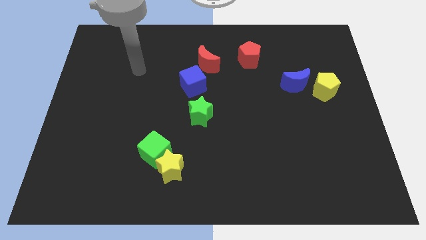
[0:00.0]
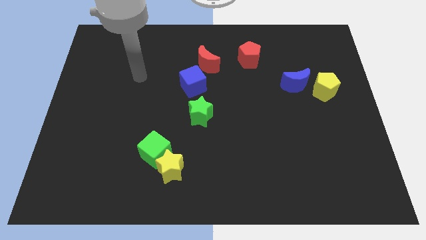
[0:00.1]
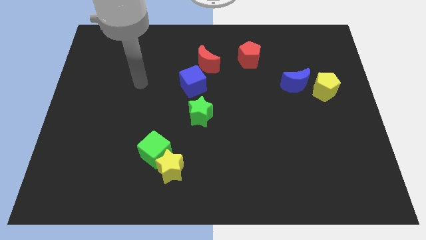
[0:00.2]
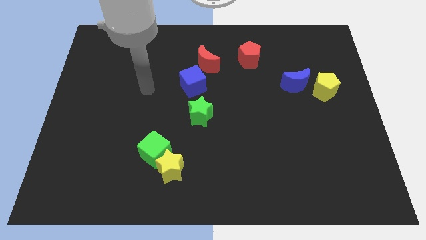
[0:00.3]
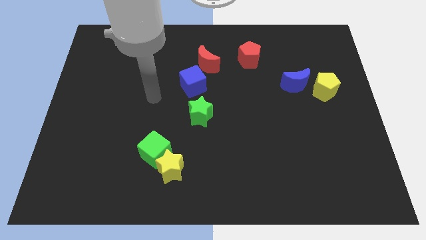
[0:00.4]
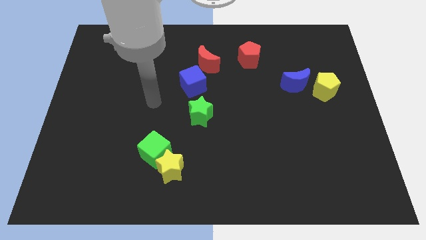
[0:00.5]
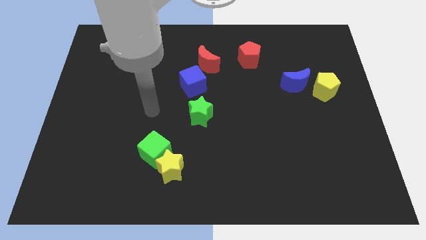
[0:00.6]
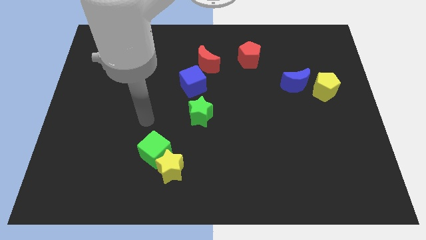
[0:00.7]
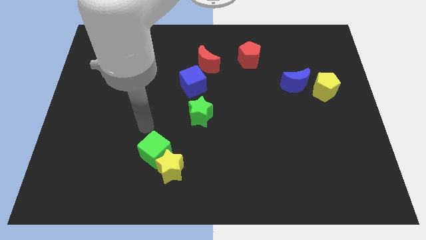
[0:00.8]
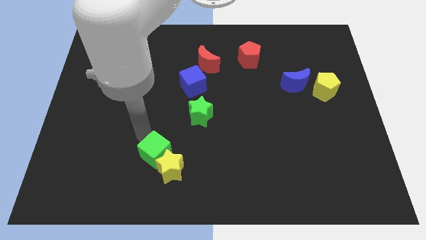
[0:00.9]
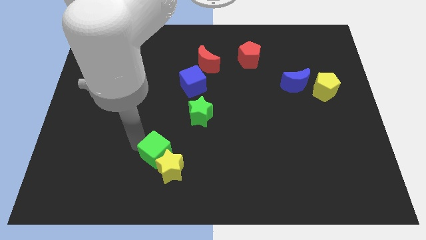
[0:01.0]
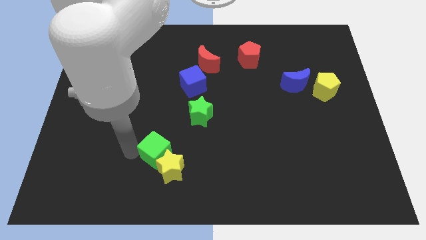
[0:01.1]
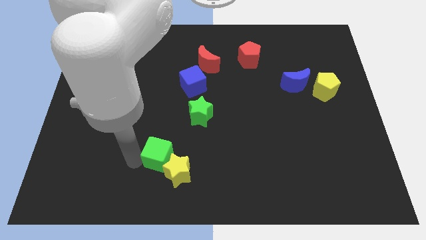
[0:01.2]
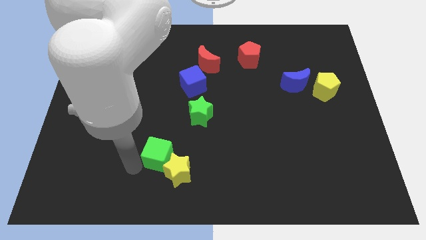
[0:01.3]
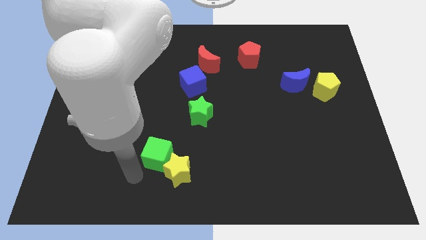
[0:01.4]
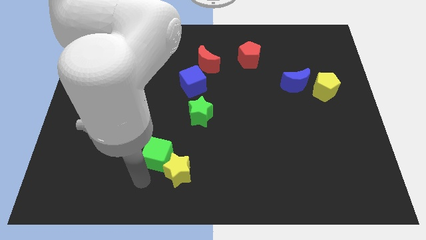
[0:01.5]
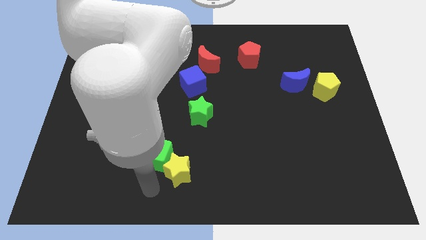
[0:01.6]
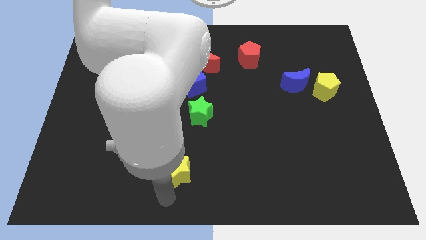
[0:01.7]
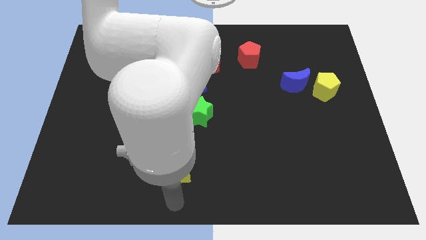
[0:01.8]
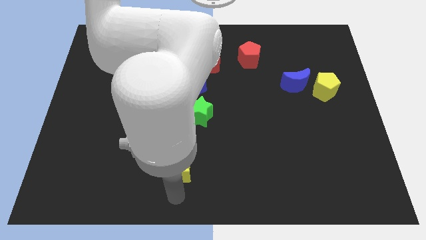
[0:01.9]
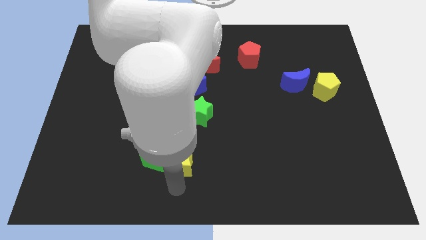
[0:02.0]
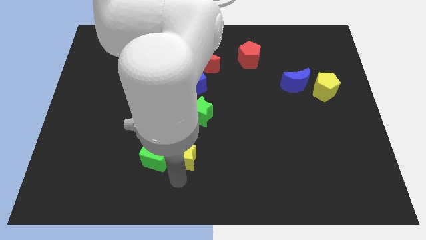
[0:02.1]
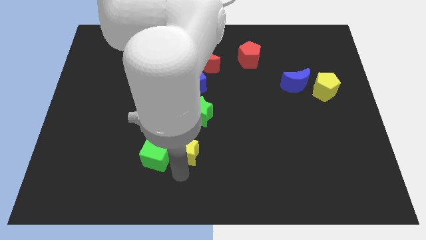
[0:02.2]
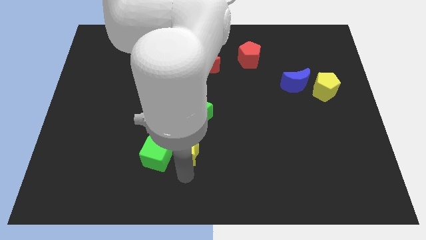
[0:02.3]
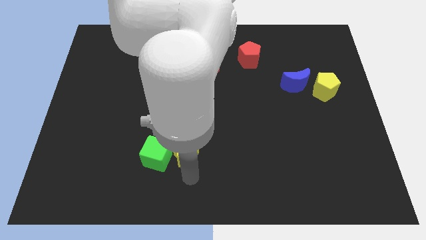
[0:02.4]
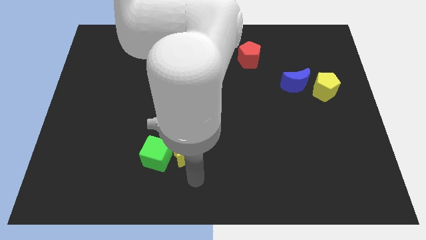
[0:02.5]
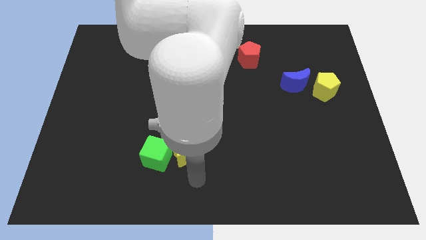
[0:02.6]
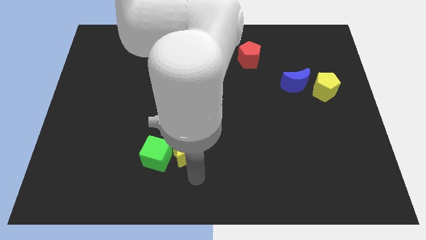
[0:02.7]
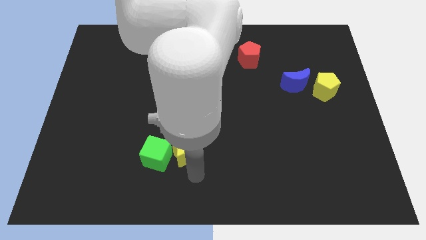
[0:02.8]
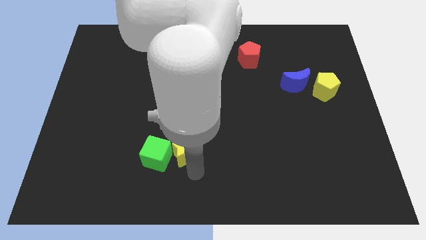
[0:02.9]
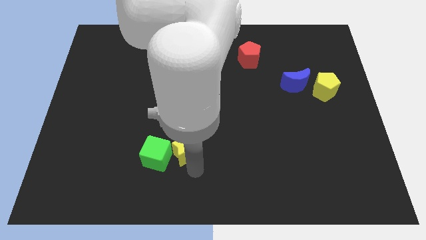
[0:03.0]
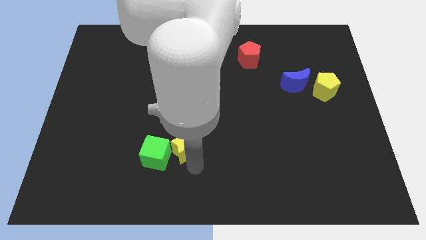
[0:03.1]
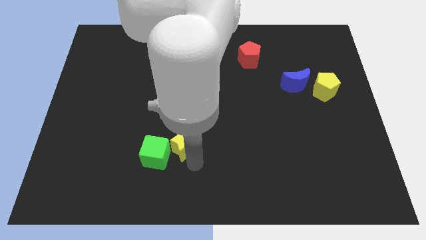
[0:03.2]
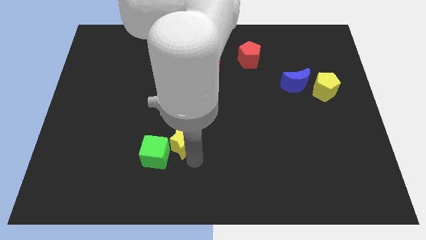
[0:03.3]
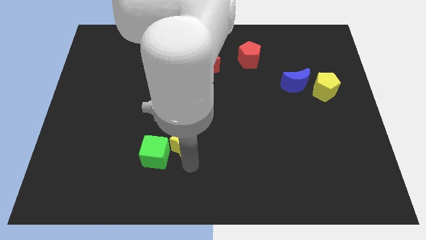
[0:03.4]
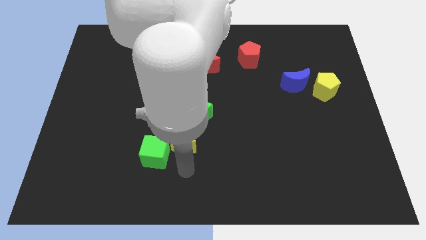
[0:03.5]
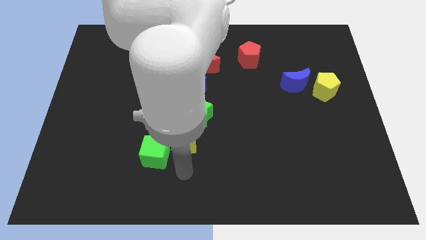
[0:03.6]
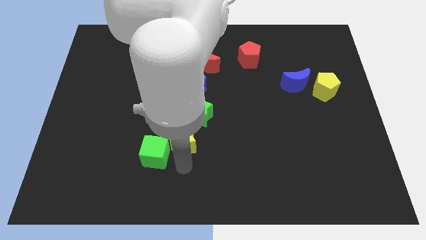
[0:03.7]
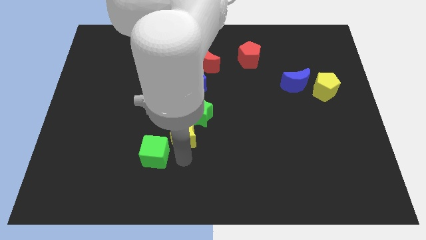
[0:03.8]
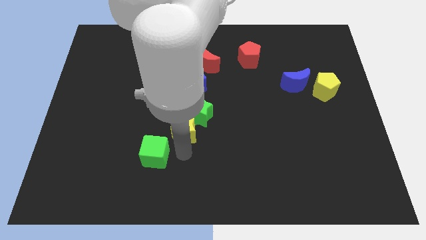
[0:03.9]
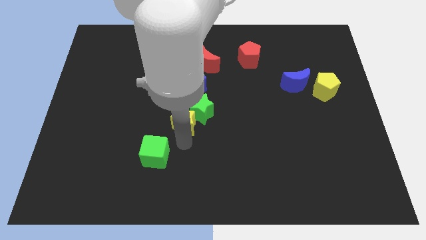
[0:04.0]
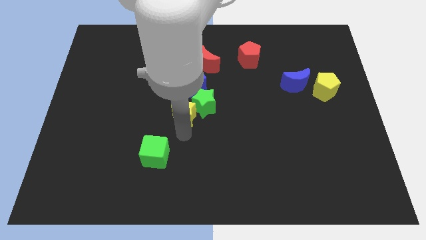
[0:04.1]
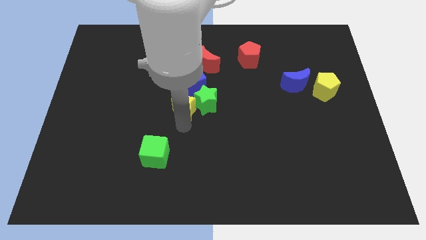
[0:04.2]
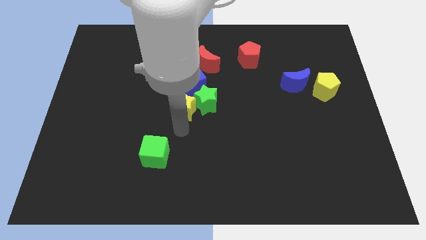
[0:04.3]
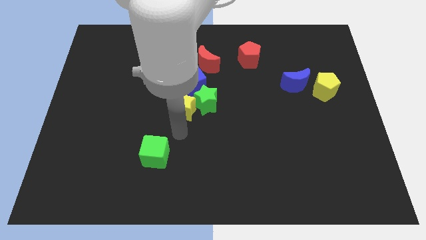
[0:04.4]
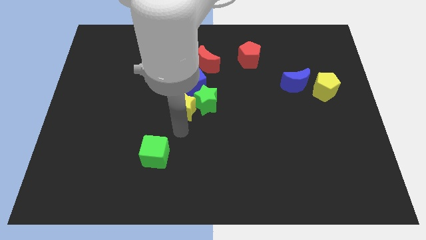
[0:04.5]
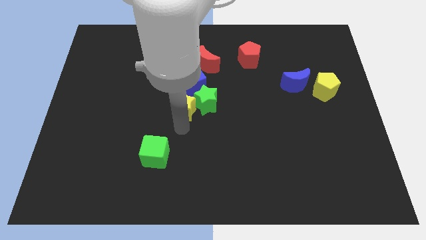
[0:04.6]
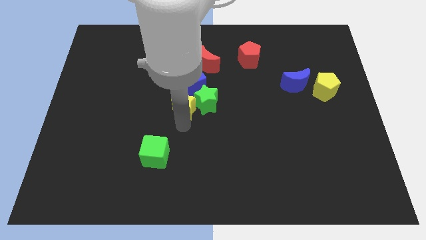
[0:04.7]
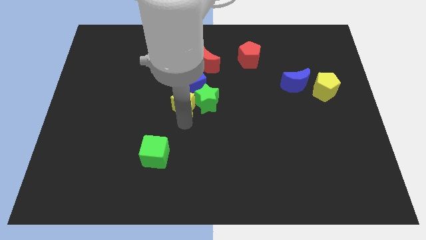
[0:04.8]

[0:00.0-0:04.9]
push the yellow star to the top left side of the green star

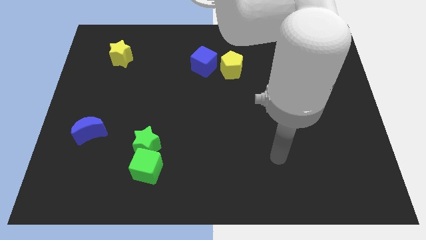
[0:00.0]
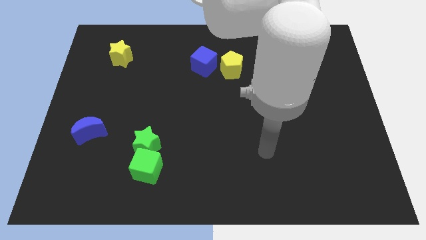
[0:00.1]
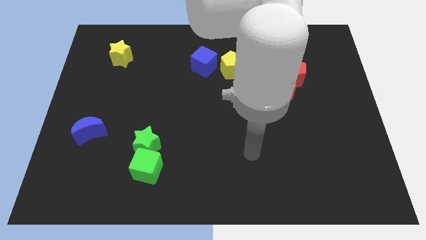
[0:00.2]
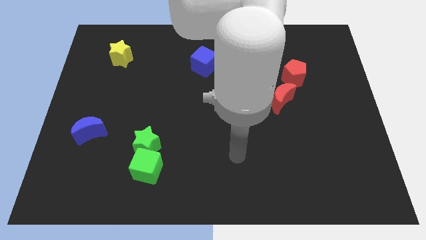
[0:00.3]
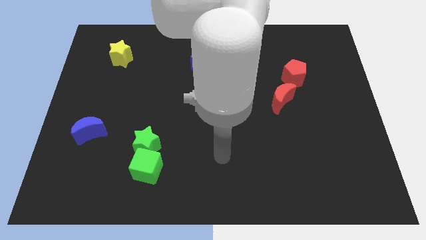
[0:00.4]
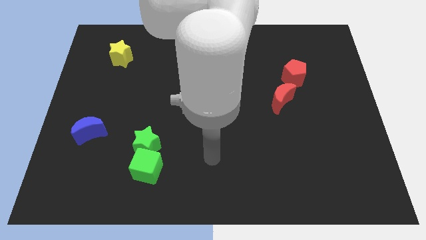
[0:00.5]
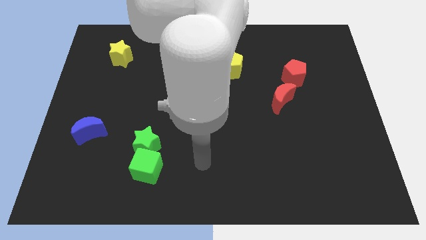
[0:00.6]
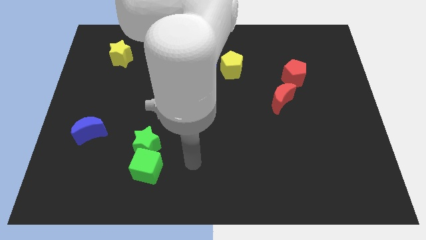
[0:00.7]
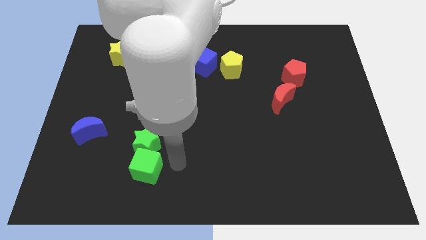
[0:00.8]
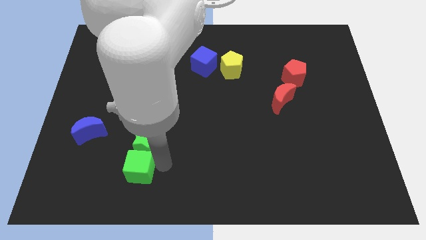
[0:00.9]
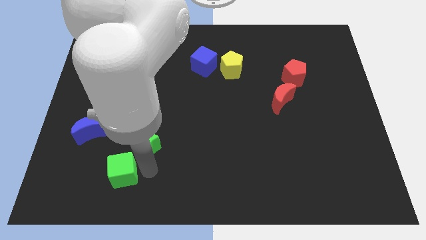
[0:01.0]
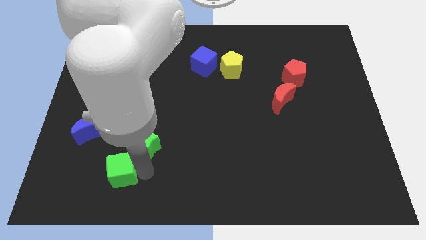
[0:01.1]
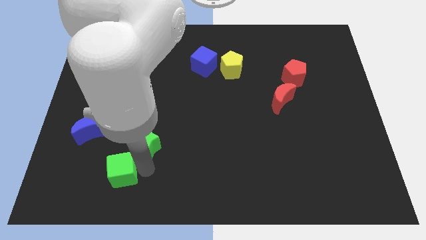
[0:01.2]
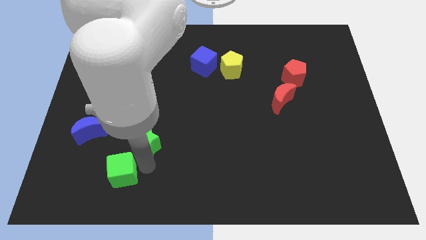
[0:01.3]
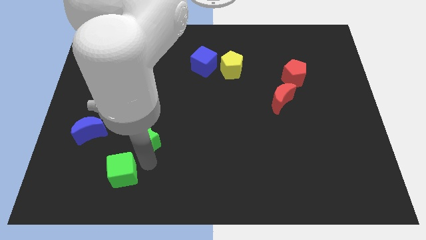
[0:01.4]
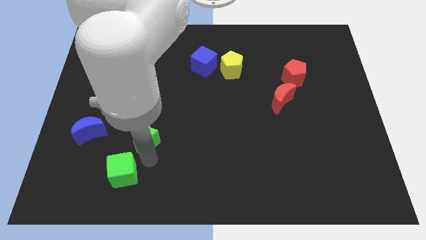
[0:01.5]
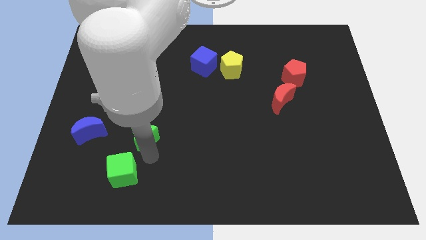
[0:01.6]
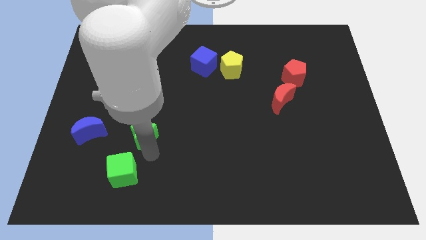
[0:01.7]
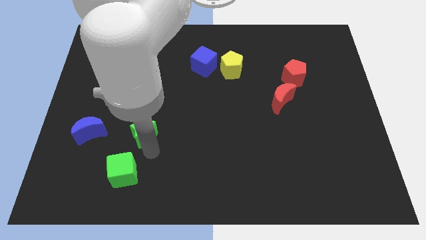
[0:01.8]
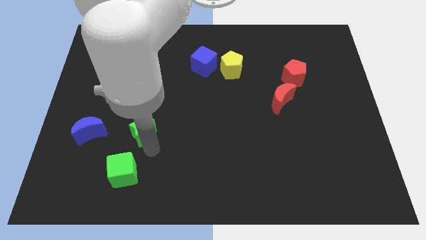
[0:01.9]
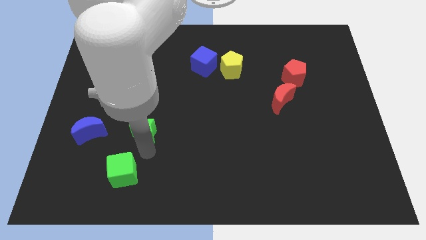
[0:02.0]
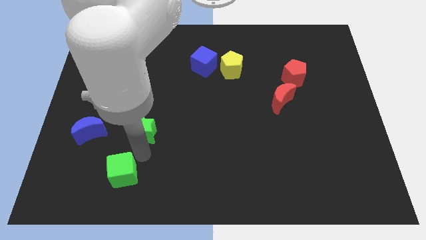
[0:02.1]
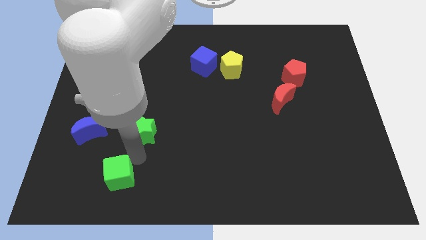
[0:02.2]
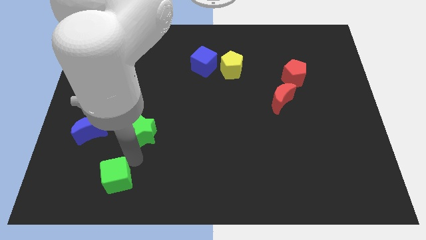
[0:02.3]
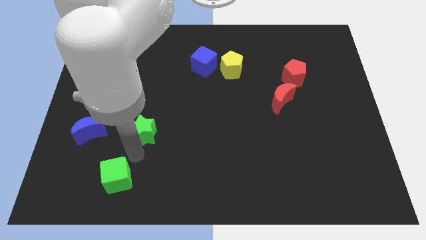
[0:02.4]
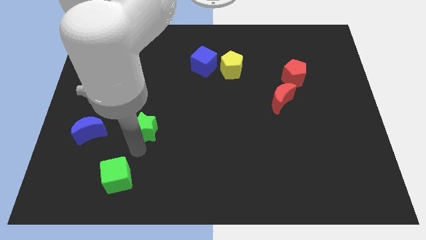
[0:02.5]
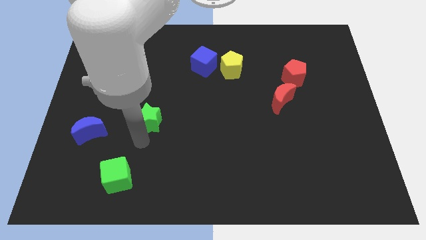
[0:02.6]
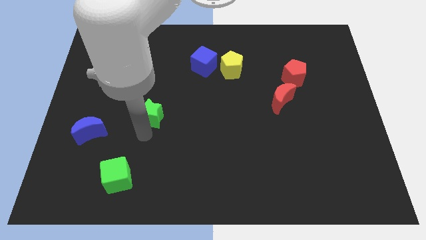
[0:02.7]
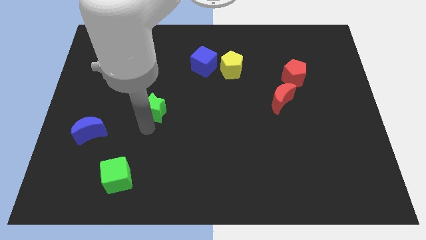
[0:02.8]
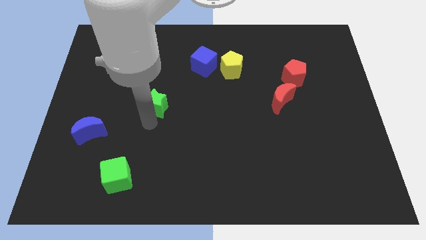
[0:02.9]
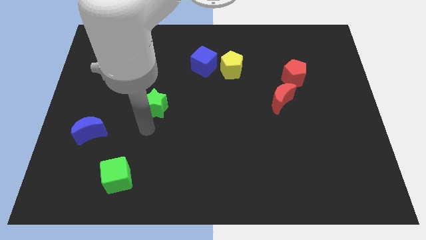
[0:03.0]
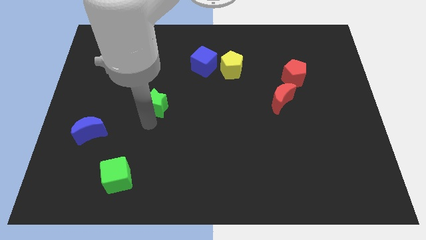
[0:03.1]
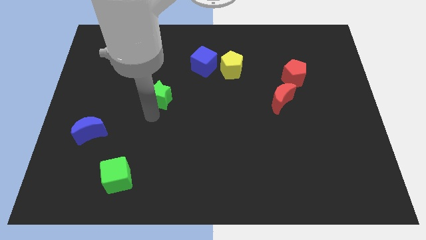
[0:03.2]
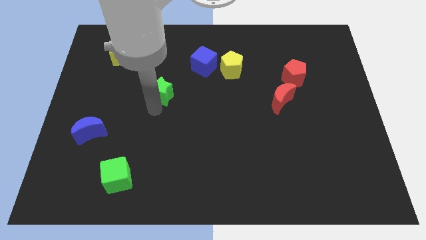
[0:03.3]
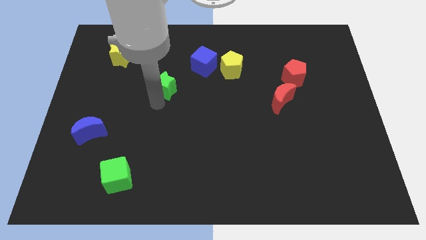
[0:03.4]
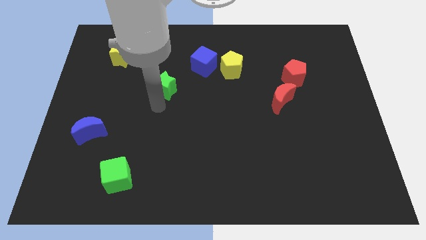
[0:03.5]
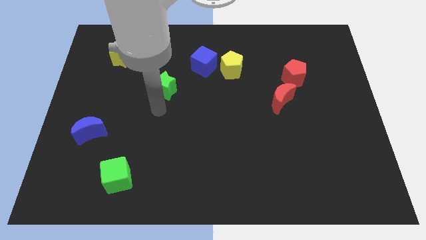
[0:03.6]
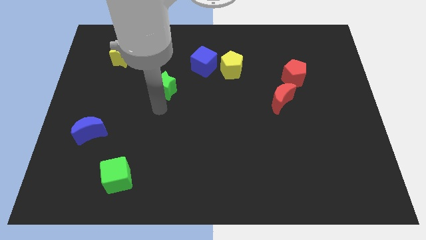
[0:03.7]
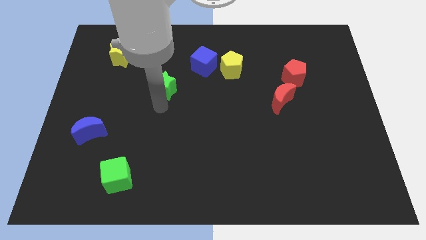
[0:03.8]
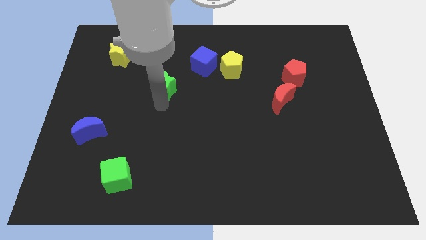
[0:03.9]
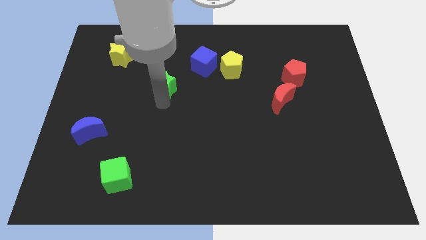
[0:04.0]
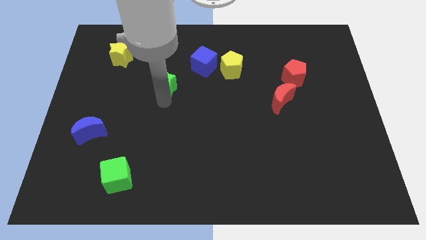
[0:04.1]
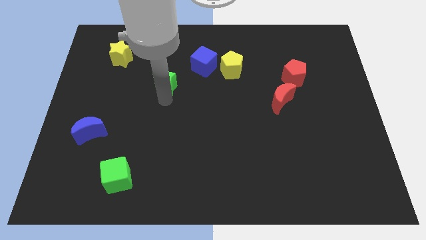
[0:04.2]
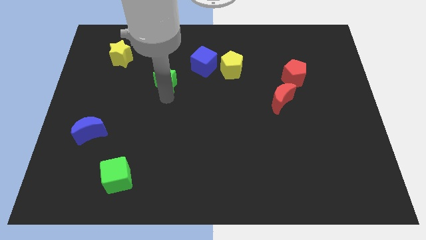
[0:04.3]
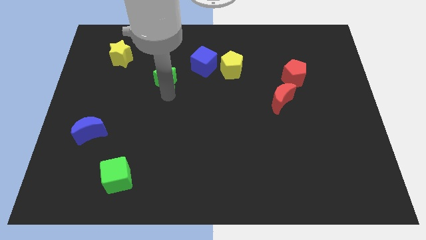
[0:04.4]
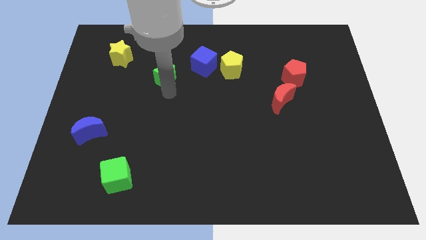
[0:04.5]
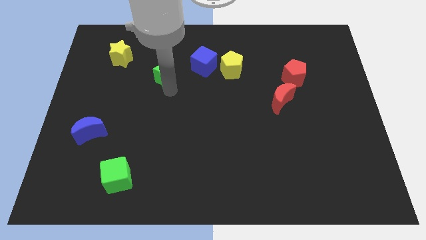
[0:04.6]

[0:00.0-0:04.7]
put the green star to the left of the blue cube
